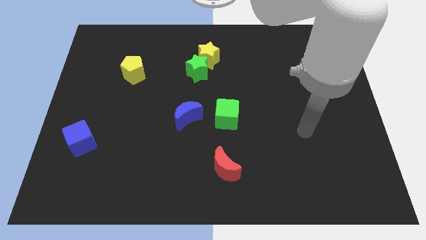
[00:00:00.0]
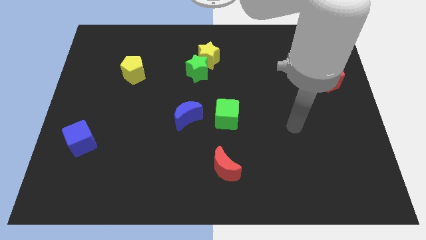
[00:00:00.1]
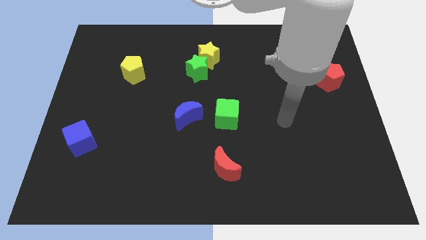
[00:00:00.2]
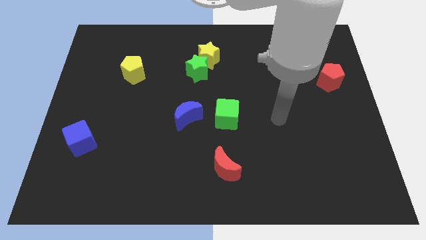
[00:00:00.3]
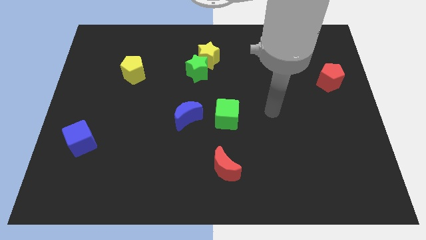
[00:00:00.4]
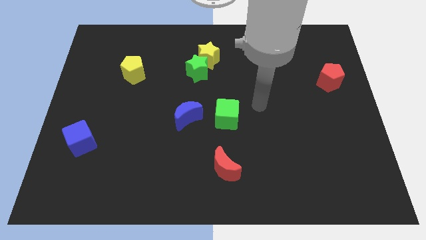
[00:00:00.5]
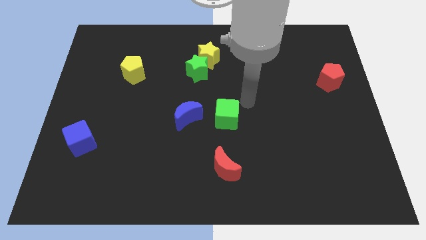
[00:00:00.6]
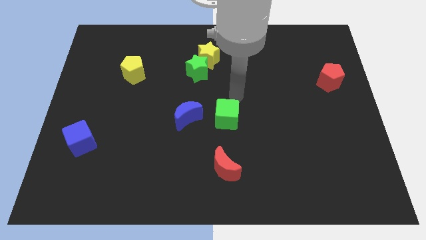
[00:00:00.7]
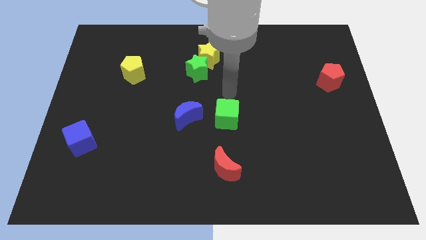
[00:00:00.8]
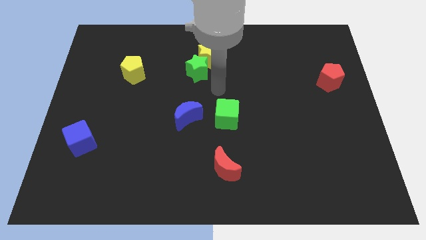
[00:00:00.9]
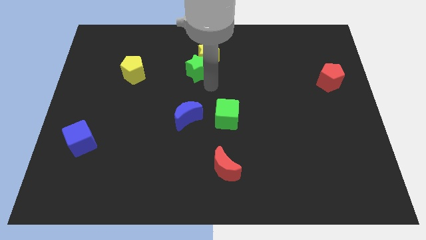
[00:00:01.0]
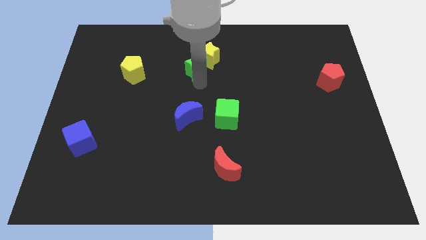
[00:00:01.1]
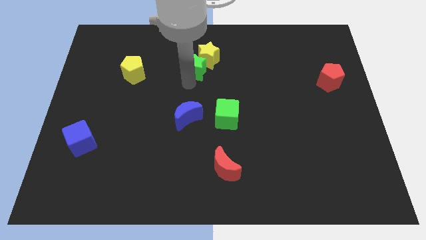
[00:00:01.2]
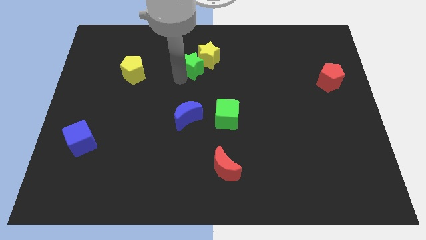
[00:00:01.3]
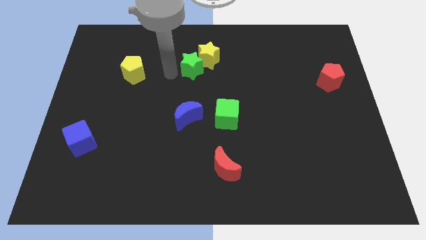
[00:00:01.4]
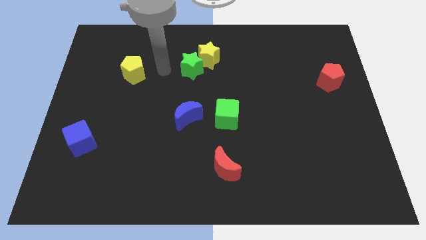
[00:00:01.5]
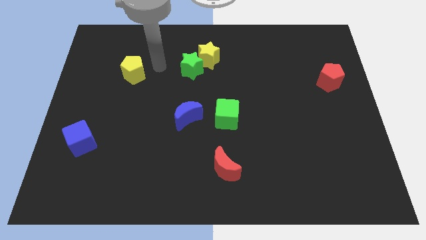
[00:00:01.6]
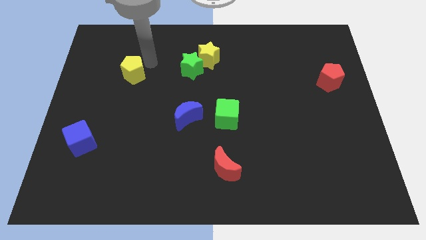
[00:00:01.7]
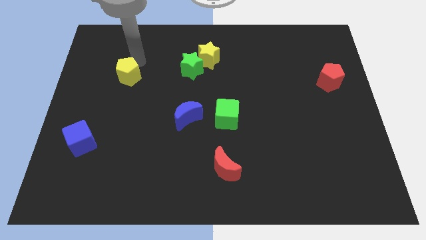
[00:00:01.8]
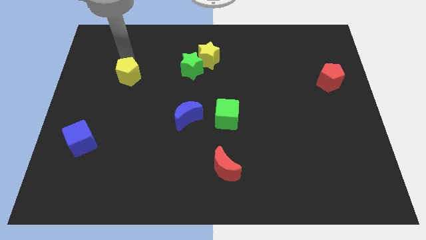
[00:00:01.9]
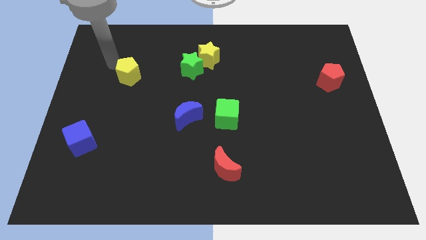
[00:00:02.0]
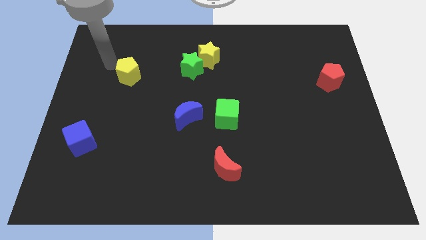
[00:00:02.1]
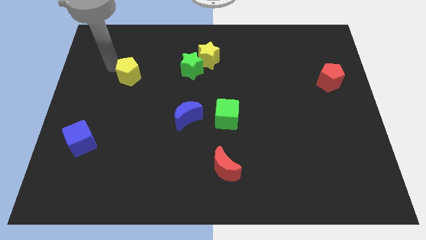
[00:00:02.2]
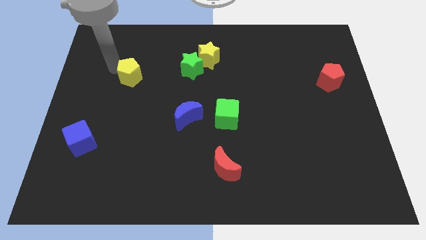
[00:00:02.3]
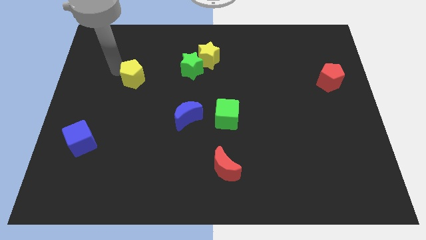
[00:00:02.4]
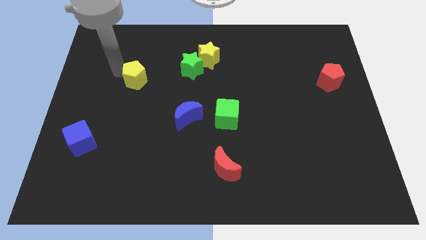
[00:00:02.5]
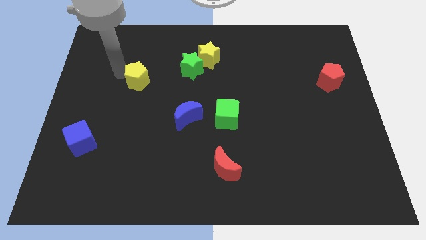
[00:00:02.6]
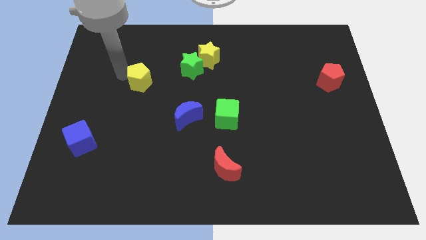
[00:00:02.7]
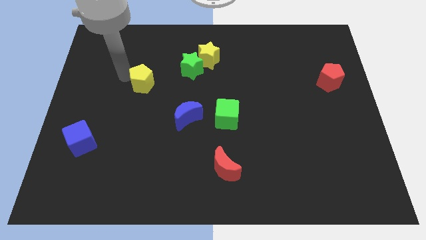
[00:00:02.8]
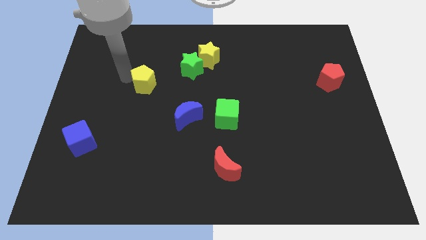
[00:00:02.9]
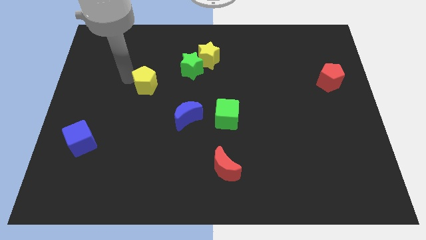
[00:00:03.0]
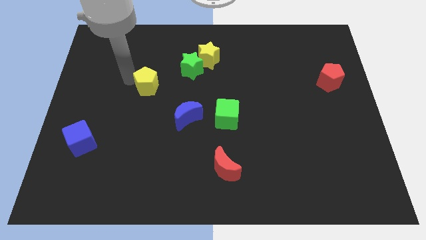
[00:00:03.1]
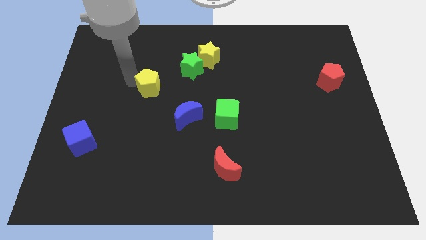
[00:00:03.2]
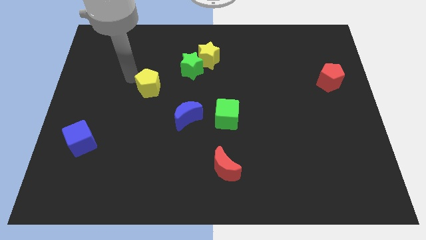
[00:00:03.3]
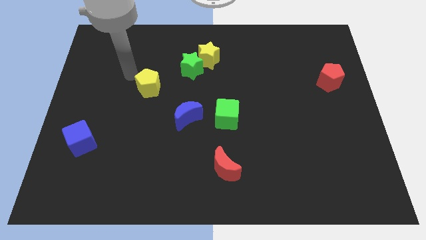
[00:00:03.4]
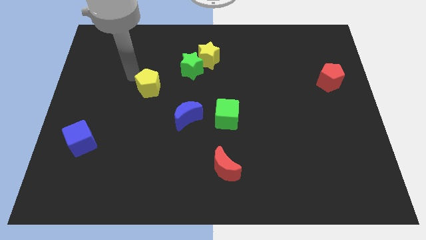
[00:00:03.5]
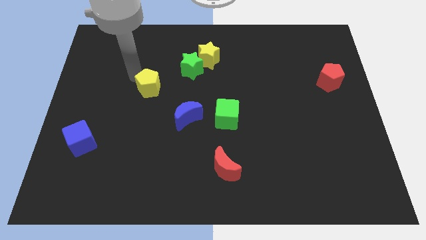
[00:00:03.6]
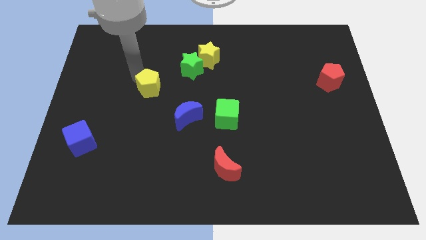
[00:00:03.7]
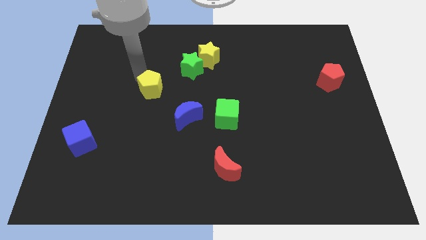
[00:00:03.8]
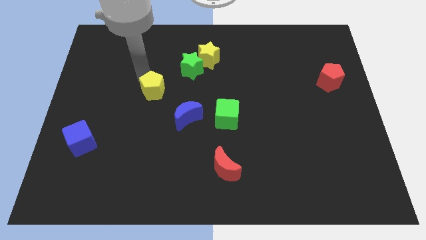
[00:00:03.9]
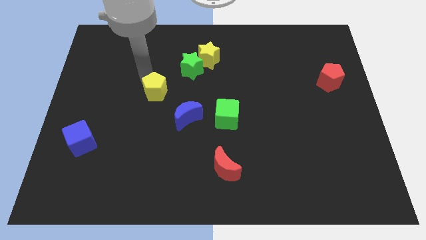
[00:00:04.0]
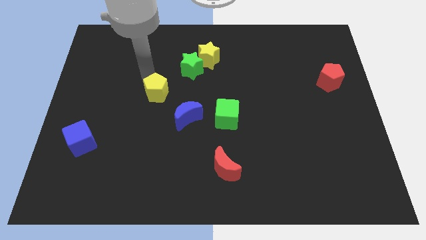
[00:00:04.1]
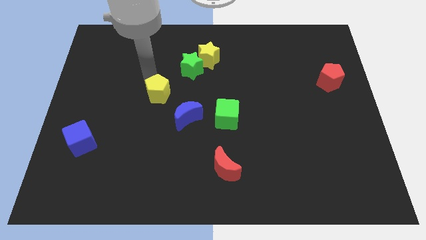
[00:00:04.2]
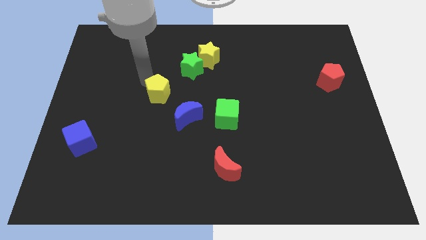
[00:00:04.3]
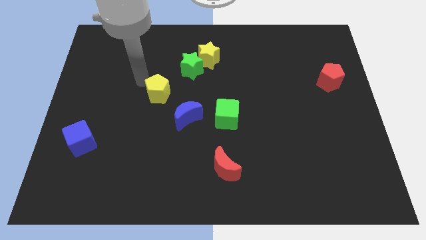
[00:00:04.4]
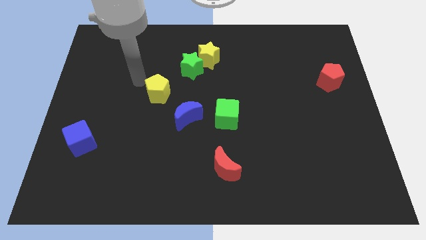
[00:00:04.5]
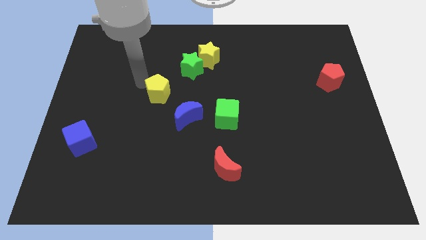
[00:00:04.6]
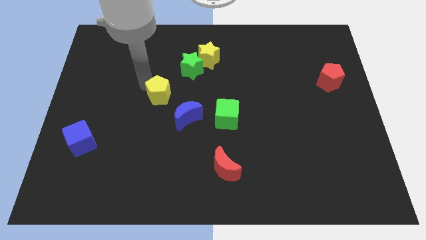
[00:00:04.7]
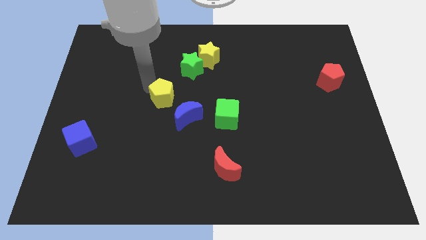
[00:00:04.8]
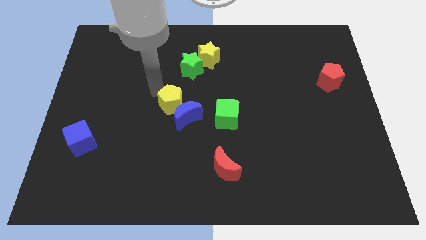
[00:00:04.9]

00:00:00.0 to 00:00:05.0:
put the yellow pentagon towards the blue moon

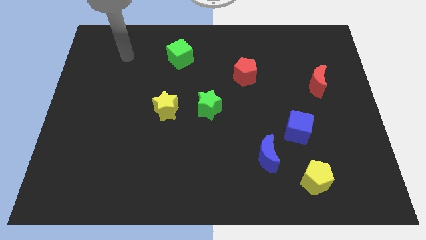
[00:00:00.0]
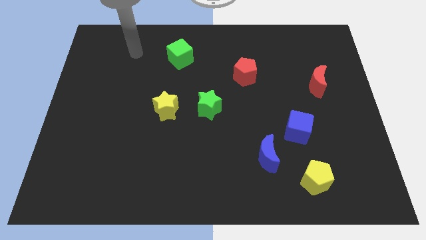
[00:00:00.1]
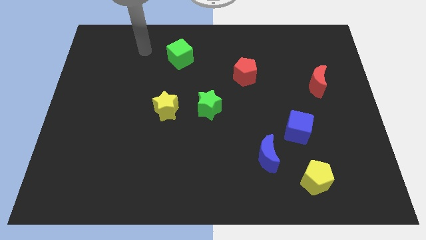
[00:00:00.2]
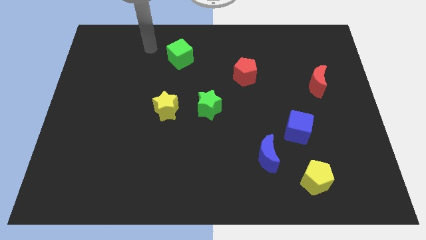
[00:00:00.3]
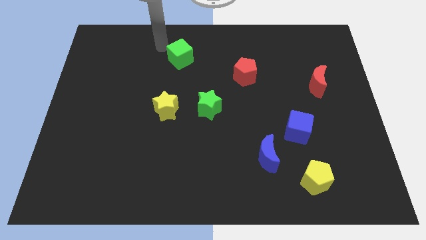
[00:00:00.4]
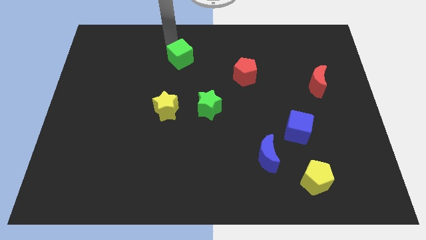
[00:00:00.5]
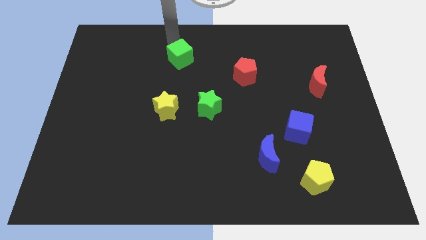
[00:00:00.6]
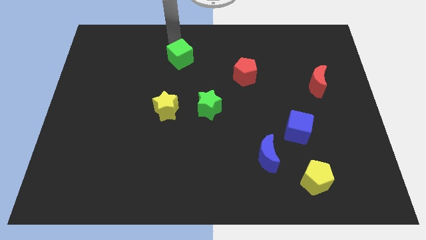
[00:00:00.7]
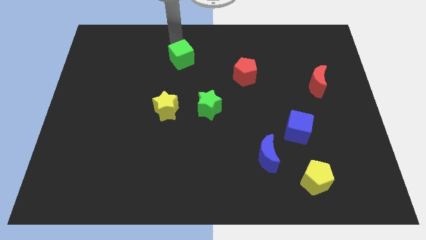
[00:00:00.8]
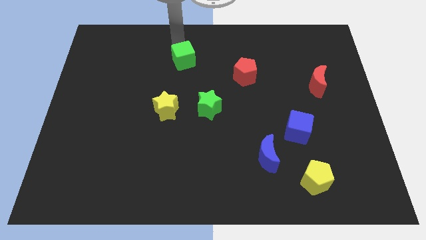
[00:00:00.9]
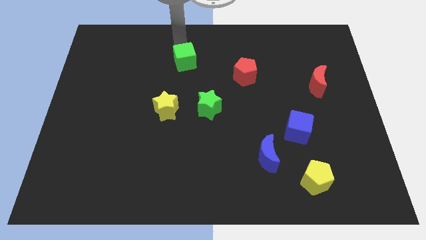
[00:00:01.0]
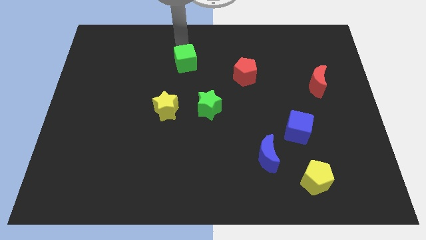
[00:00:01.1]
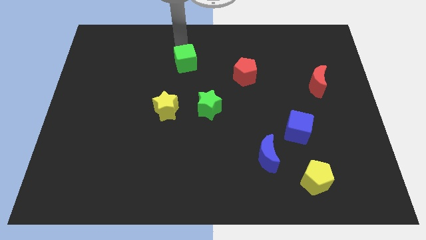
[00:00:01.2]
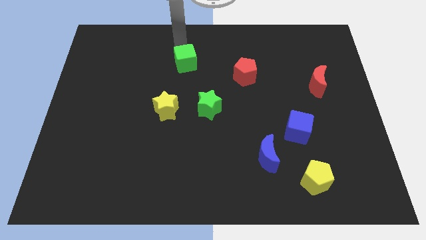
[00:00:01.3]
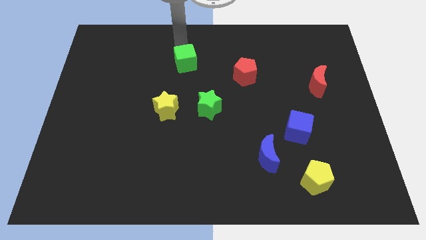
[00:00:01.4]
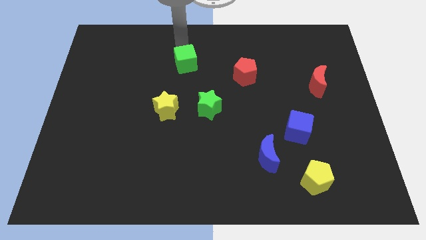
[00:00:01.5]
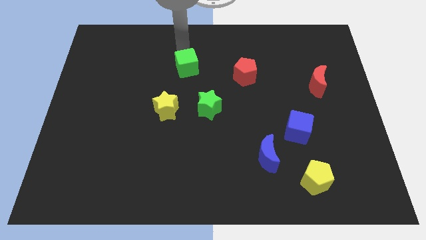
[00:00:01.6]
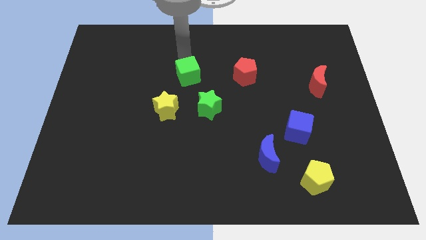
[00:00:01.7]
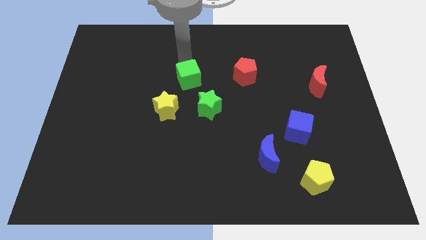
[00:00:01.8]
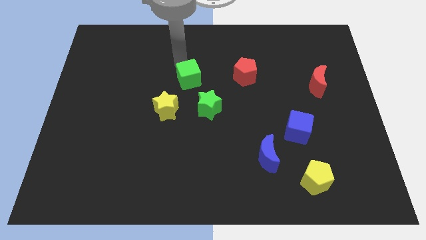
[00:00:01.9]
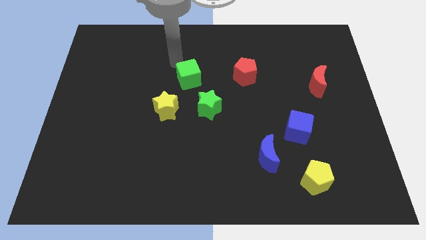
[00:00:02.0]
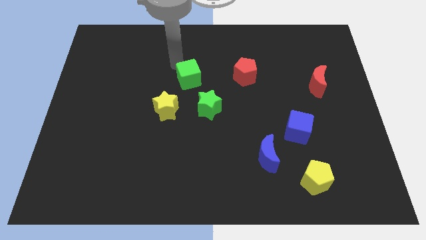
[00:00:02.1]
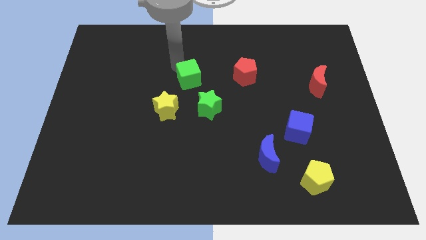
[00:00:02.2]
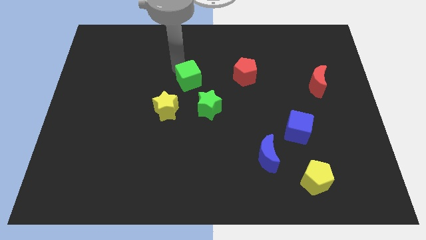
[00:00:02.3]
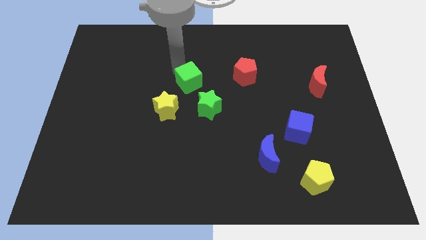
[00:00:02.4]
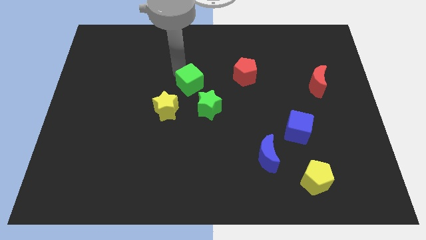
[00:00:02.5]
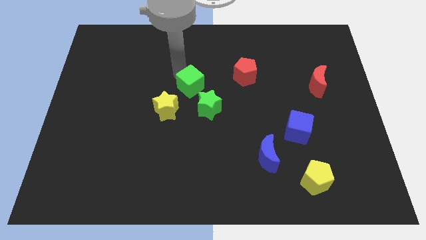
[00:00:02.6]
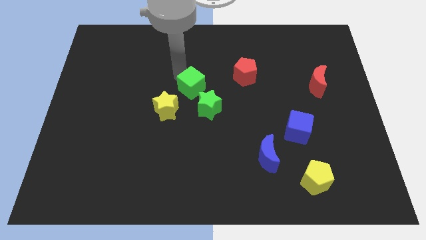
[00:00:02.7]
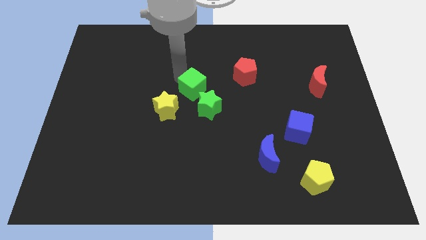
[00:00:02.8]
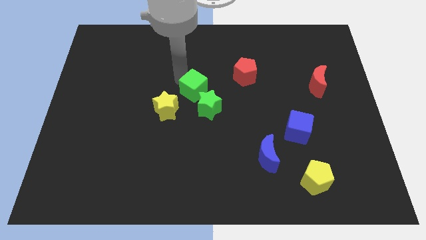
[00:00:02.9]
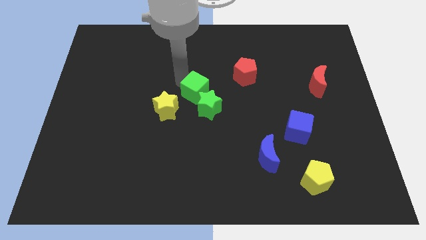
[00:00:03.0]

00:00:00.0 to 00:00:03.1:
slide the green cube towards the green star
